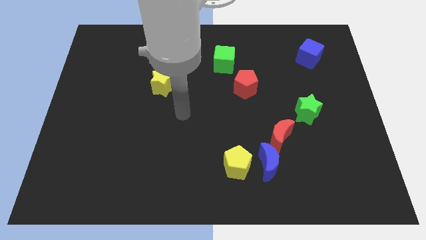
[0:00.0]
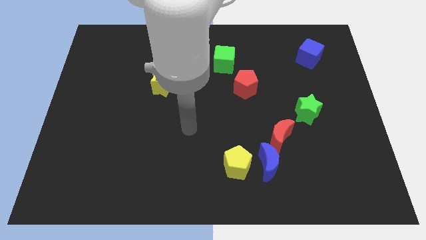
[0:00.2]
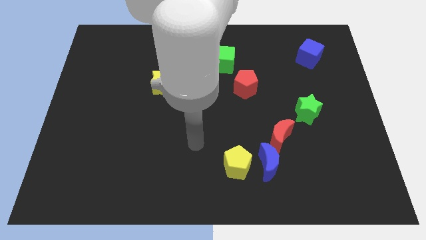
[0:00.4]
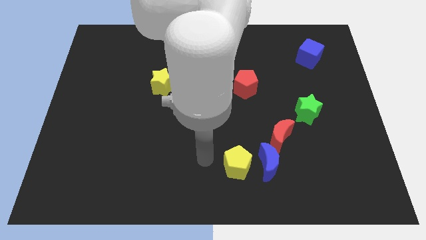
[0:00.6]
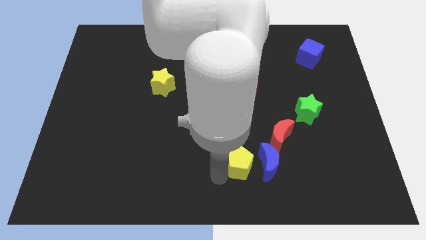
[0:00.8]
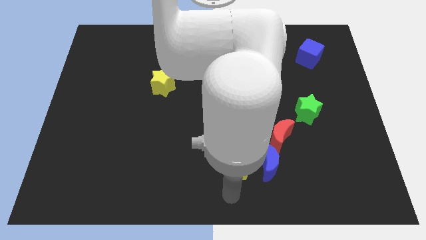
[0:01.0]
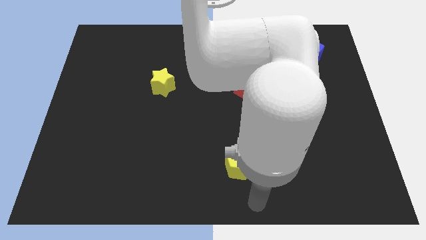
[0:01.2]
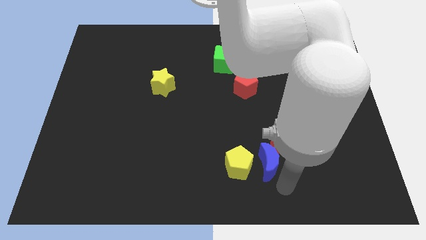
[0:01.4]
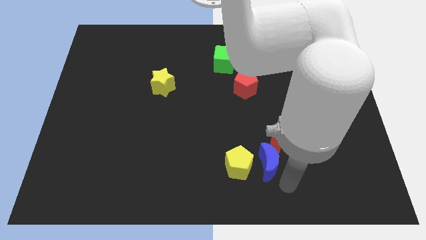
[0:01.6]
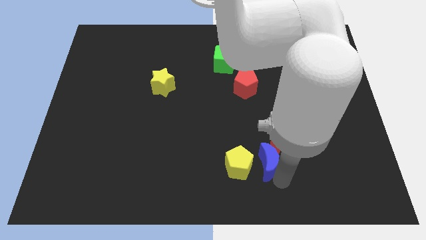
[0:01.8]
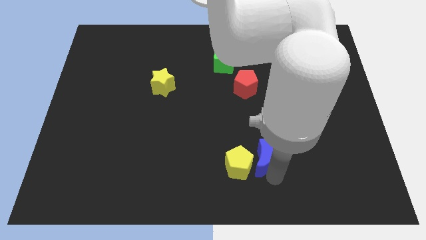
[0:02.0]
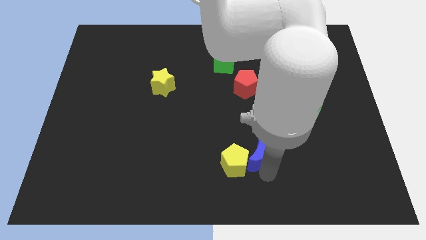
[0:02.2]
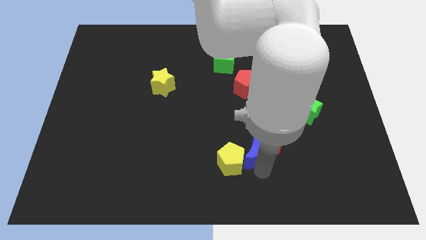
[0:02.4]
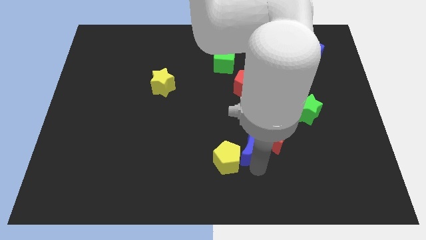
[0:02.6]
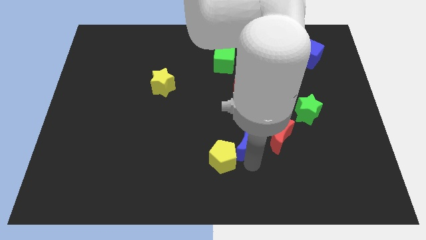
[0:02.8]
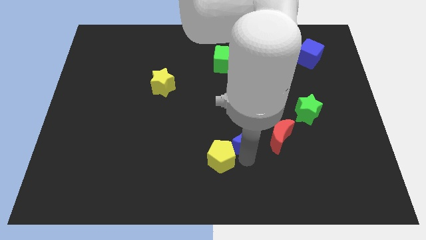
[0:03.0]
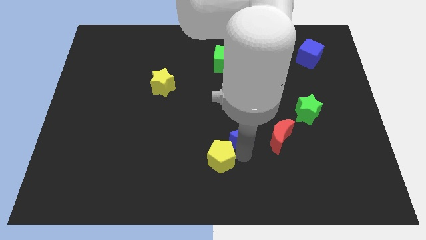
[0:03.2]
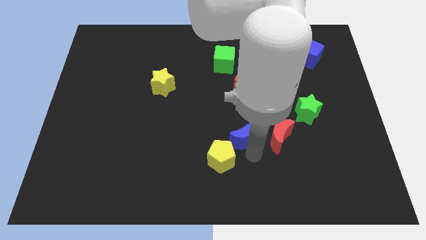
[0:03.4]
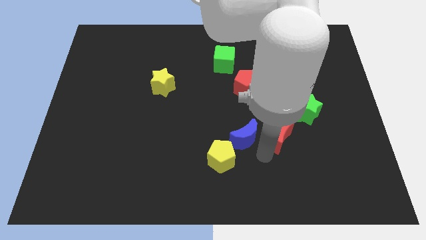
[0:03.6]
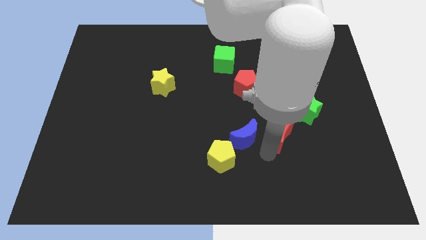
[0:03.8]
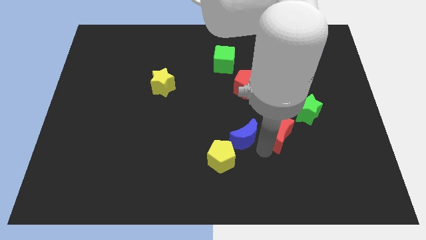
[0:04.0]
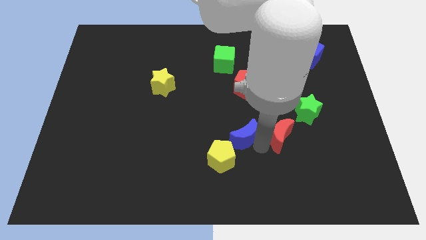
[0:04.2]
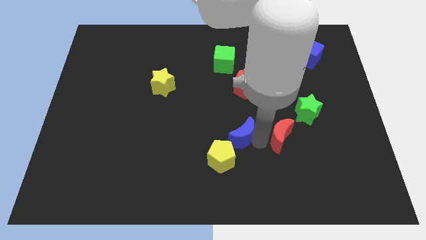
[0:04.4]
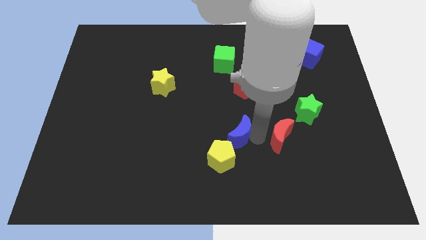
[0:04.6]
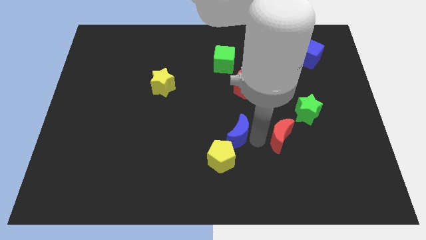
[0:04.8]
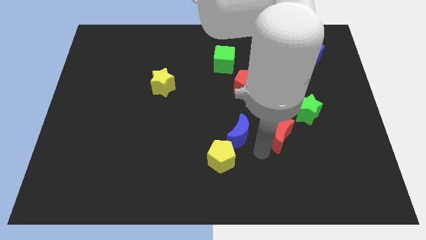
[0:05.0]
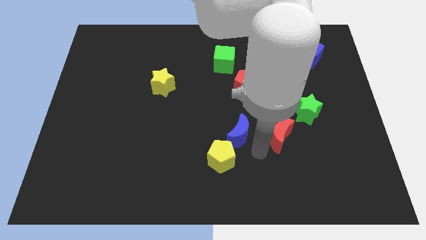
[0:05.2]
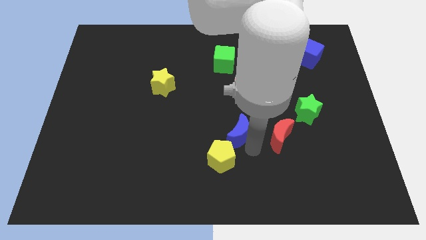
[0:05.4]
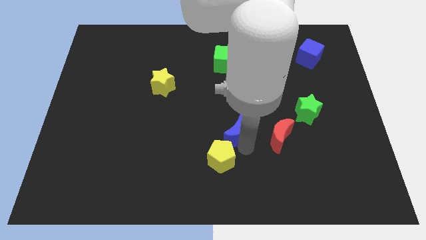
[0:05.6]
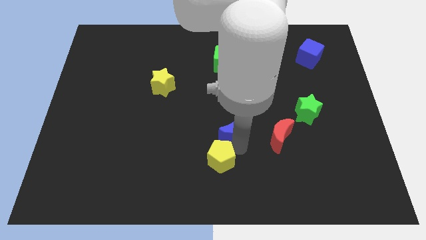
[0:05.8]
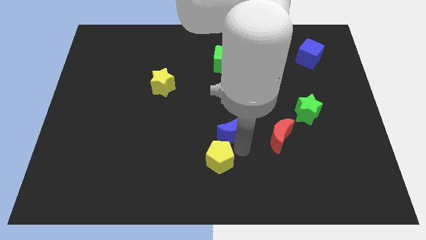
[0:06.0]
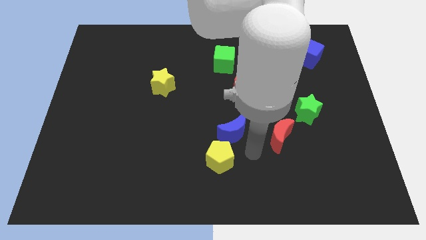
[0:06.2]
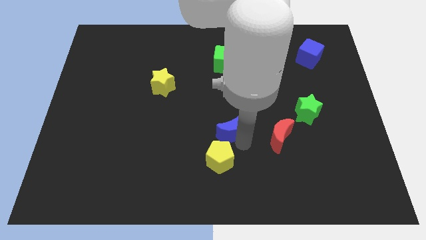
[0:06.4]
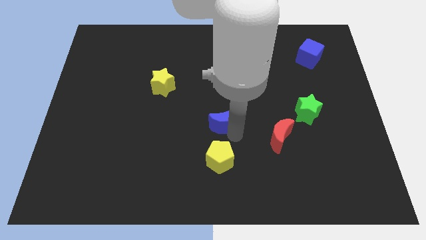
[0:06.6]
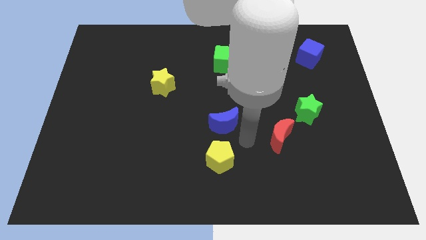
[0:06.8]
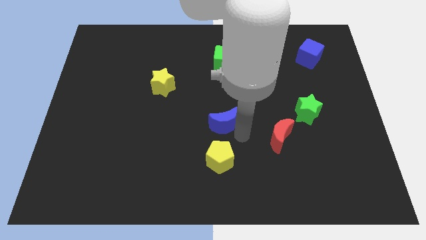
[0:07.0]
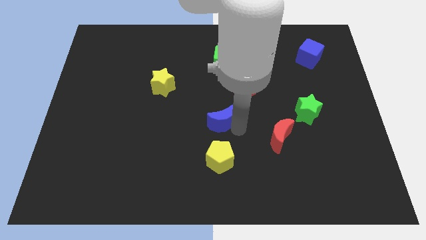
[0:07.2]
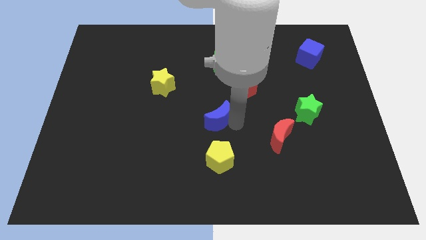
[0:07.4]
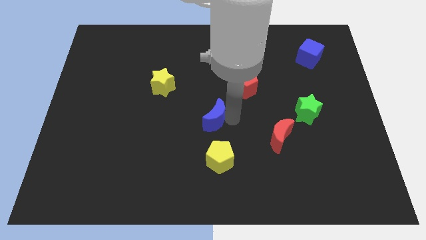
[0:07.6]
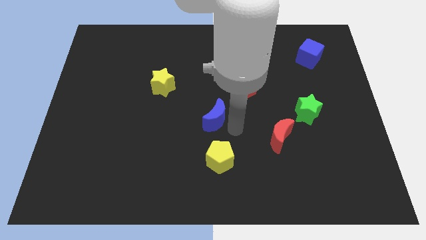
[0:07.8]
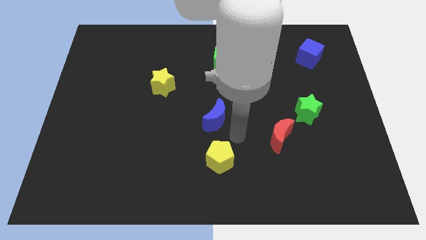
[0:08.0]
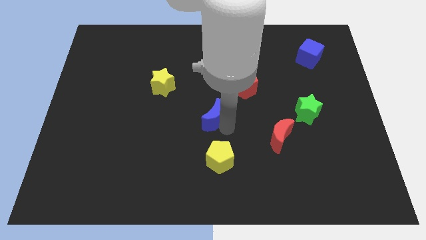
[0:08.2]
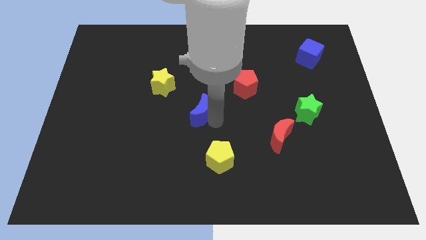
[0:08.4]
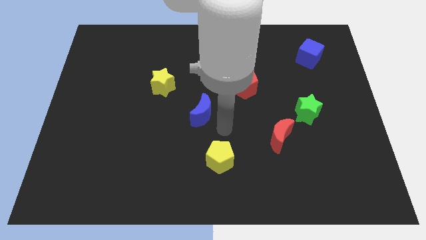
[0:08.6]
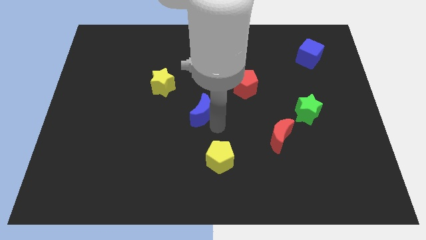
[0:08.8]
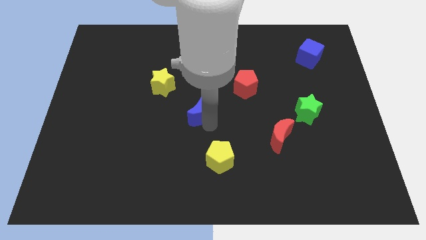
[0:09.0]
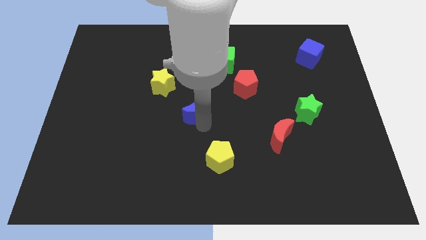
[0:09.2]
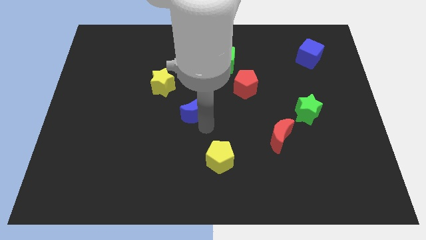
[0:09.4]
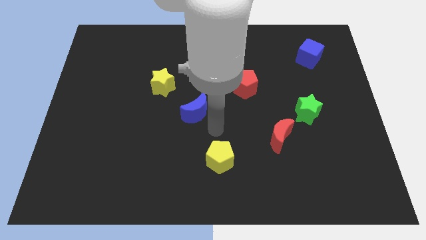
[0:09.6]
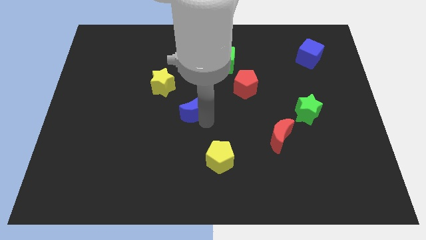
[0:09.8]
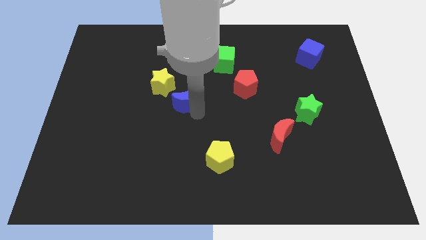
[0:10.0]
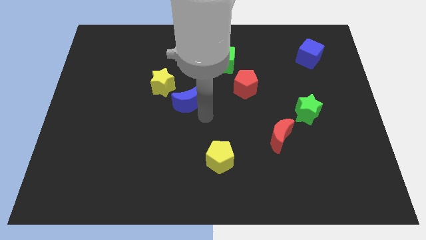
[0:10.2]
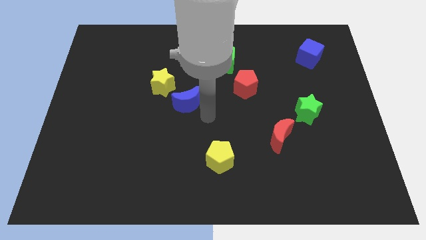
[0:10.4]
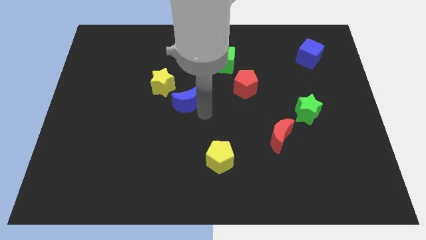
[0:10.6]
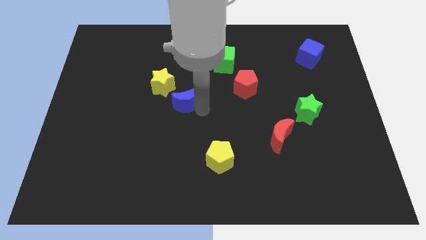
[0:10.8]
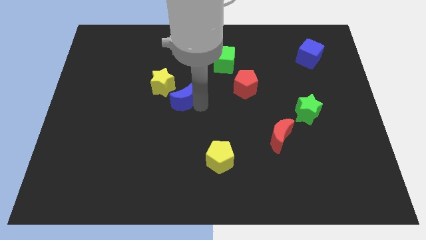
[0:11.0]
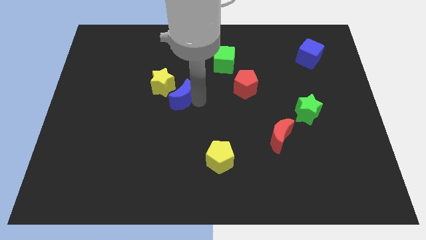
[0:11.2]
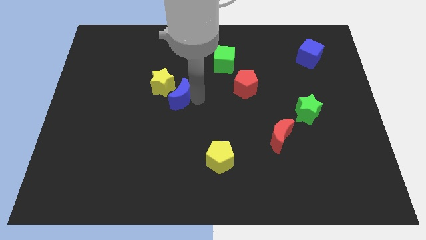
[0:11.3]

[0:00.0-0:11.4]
push the blue moon next to the yellow star

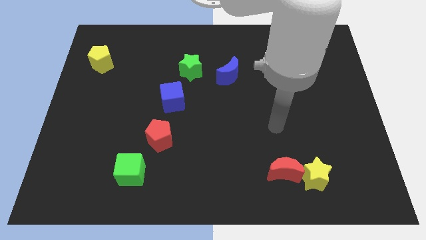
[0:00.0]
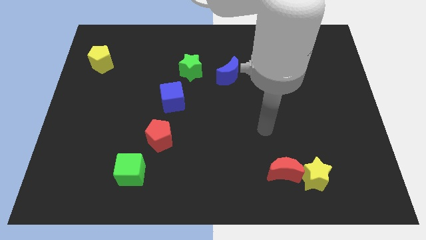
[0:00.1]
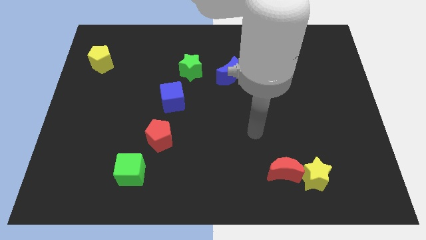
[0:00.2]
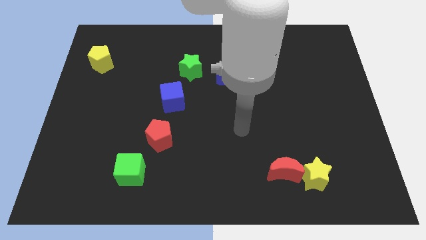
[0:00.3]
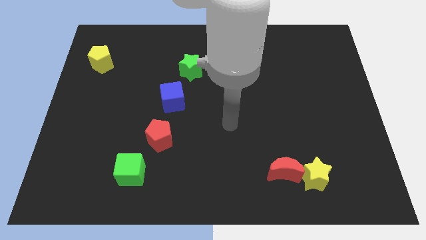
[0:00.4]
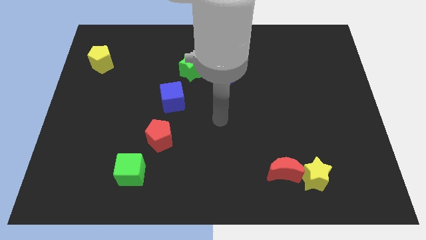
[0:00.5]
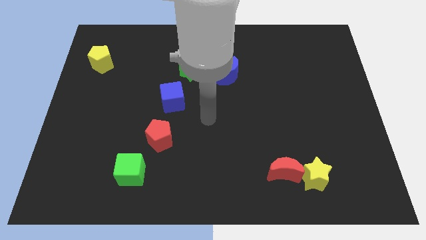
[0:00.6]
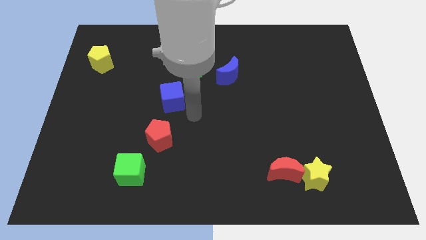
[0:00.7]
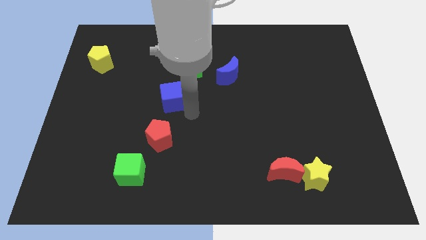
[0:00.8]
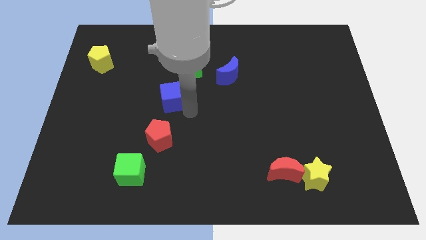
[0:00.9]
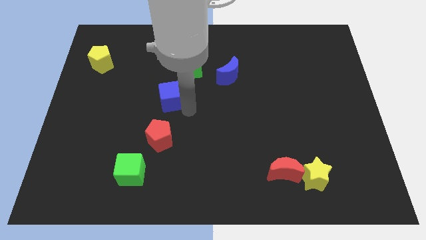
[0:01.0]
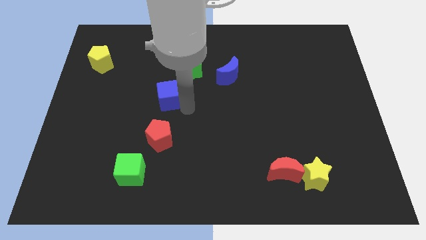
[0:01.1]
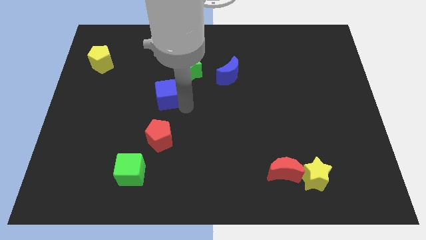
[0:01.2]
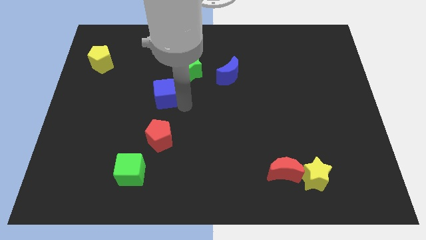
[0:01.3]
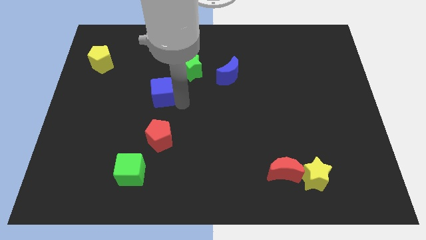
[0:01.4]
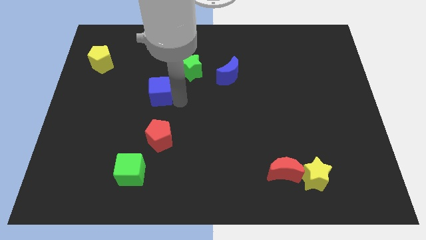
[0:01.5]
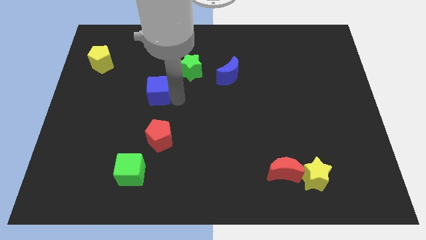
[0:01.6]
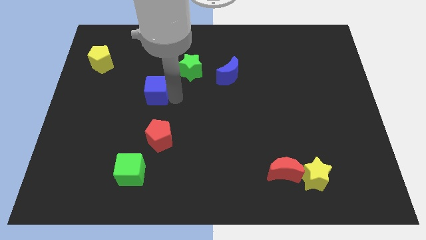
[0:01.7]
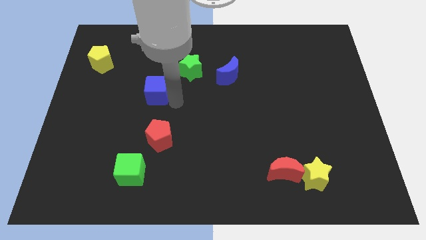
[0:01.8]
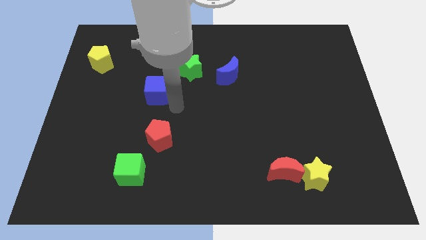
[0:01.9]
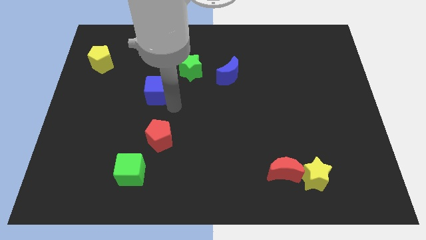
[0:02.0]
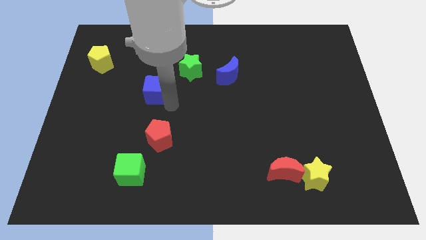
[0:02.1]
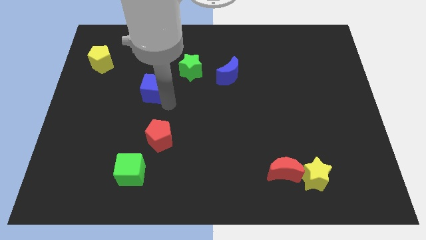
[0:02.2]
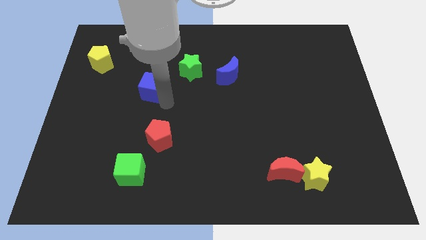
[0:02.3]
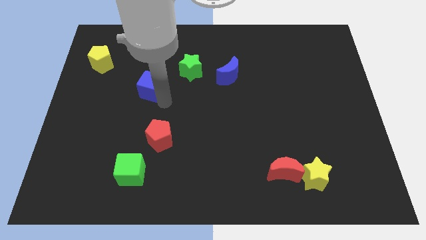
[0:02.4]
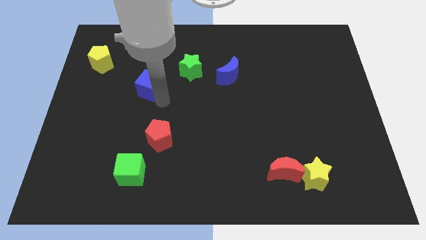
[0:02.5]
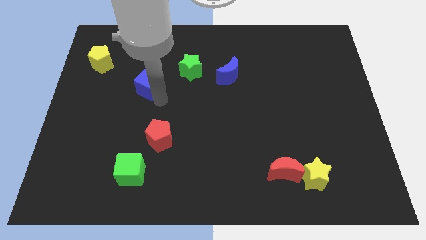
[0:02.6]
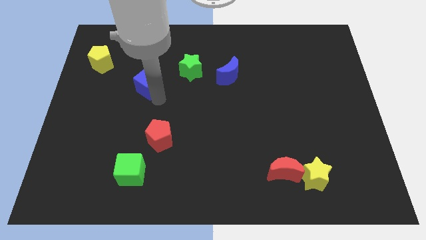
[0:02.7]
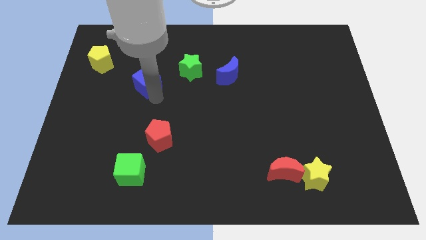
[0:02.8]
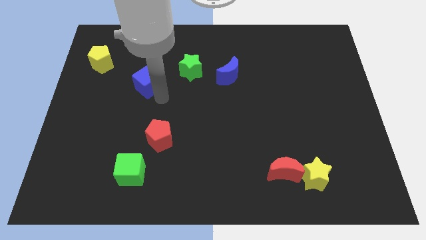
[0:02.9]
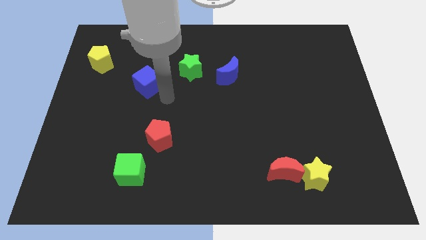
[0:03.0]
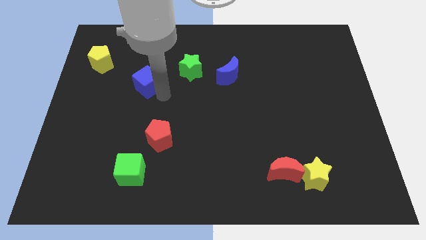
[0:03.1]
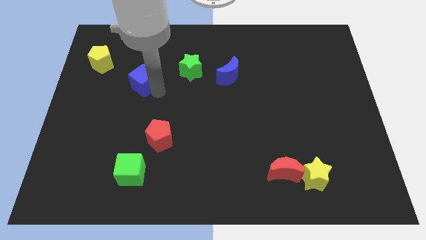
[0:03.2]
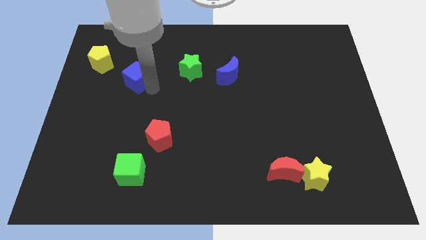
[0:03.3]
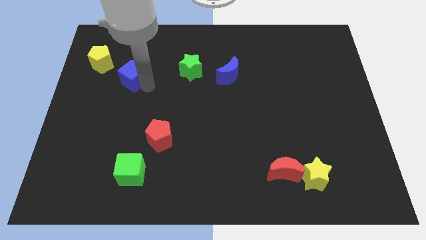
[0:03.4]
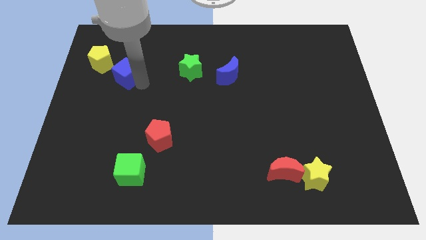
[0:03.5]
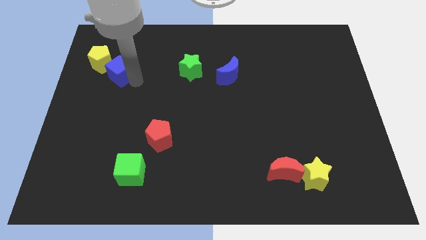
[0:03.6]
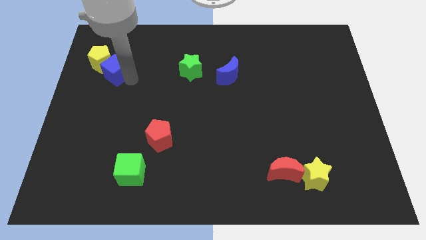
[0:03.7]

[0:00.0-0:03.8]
slide the blue cube towards the yellow pentagon
